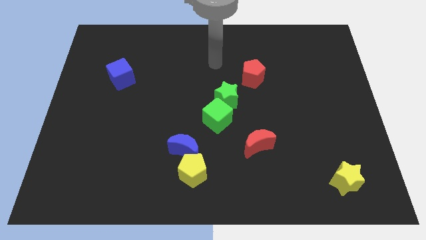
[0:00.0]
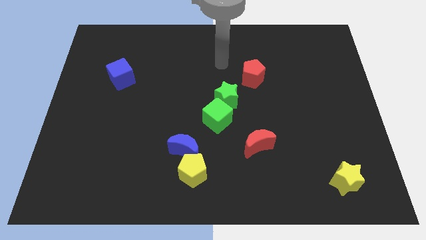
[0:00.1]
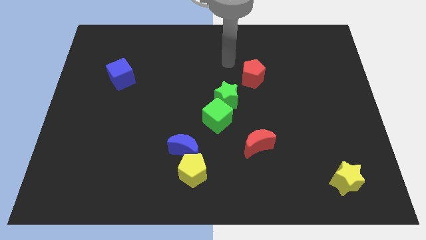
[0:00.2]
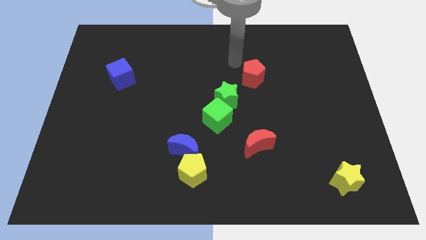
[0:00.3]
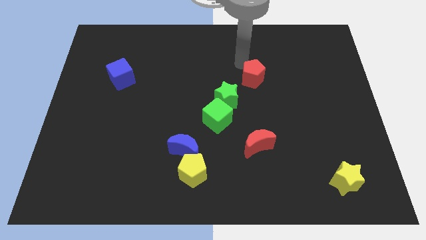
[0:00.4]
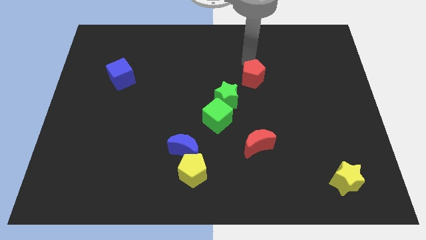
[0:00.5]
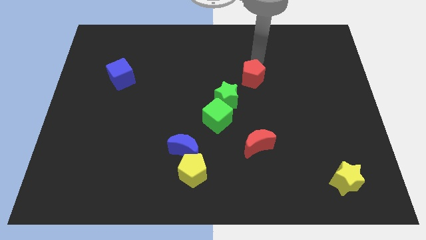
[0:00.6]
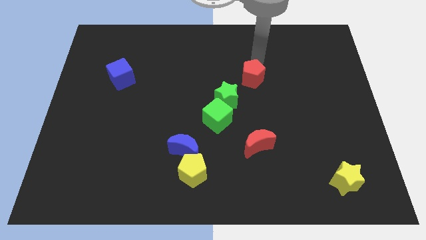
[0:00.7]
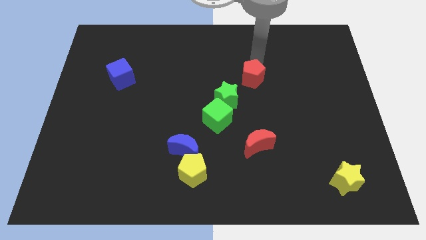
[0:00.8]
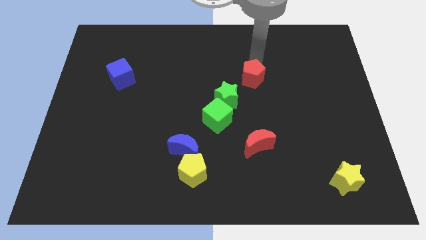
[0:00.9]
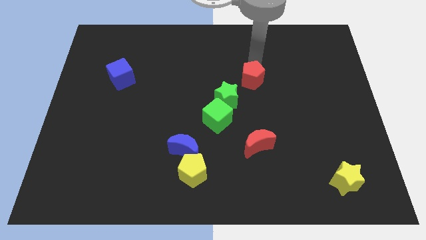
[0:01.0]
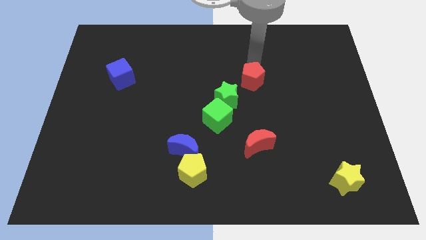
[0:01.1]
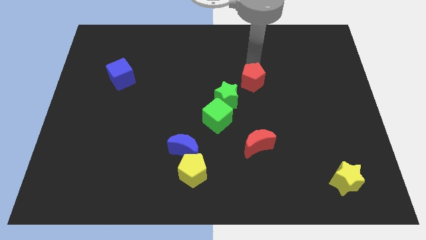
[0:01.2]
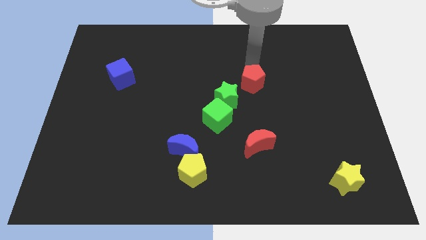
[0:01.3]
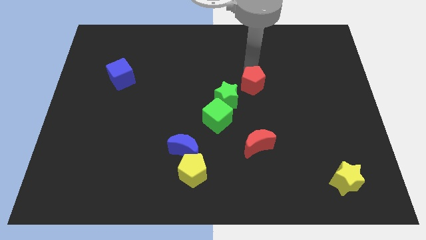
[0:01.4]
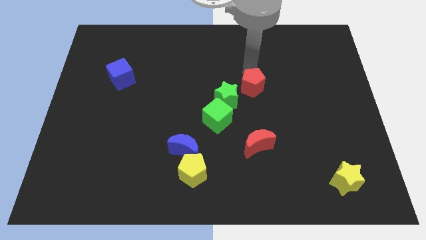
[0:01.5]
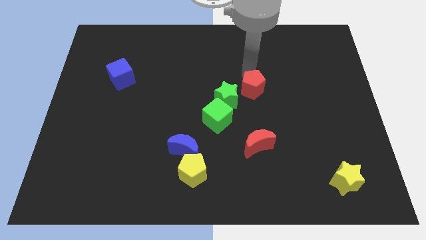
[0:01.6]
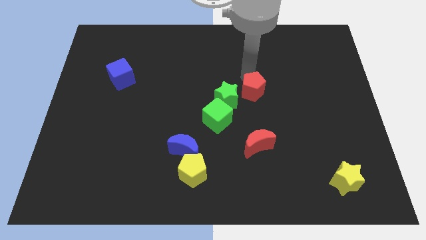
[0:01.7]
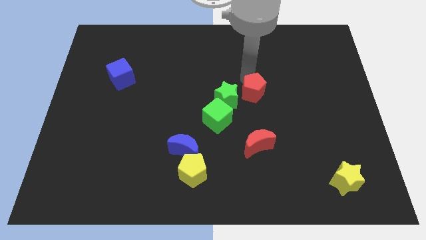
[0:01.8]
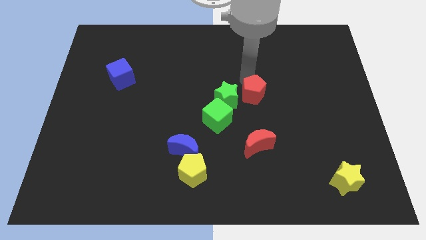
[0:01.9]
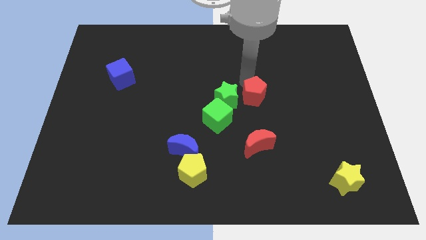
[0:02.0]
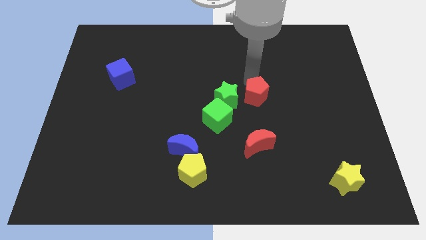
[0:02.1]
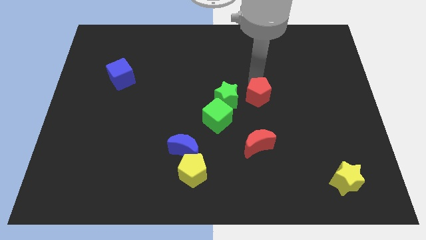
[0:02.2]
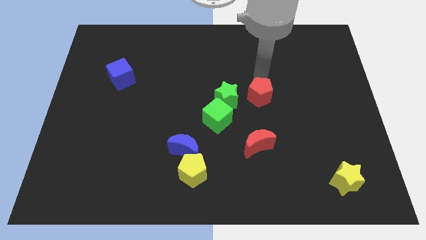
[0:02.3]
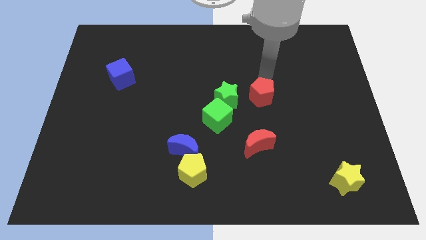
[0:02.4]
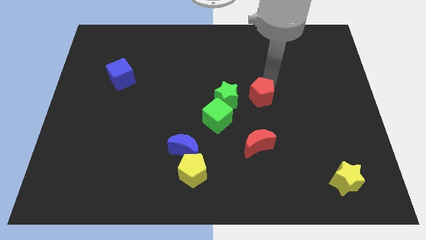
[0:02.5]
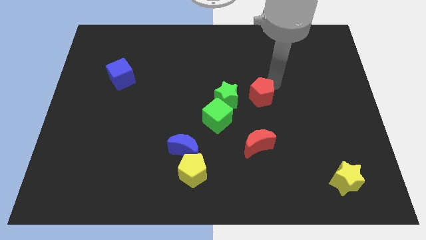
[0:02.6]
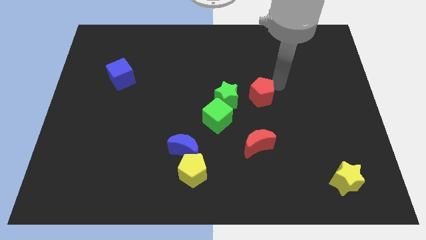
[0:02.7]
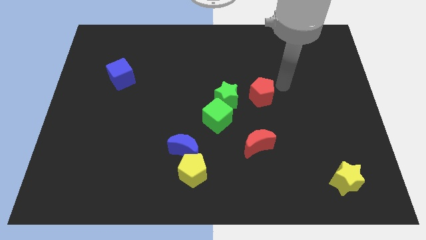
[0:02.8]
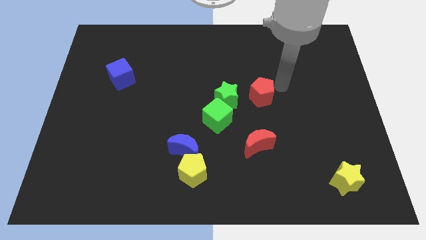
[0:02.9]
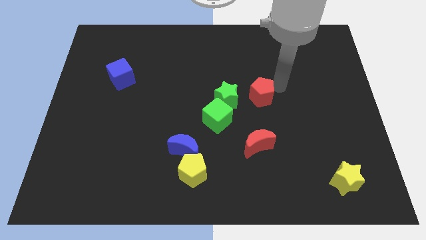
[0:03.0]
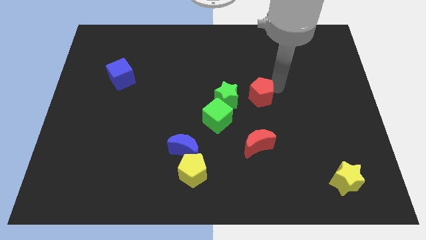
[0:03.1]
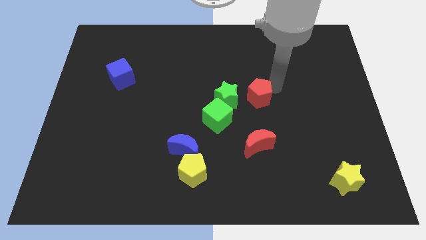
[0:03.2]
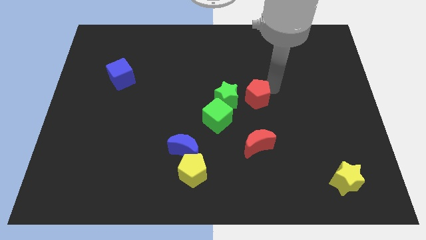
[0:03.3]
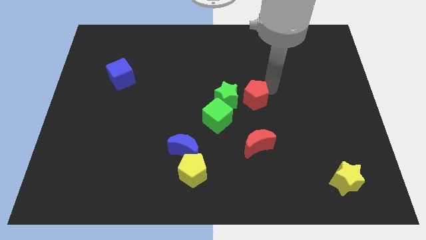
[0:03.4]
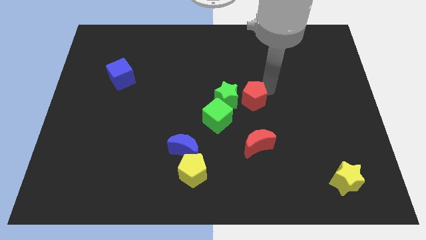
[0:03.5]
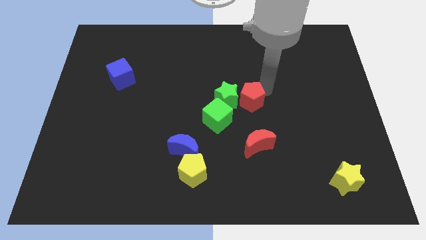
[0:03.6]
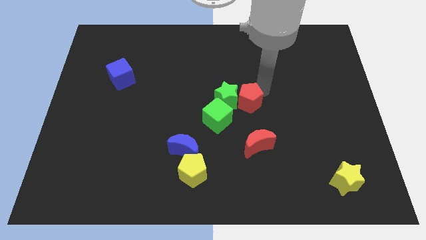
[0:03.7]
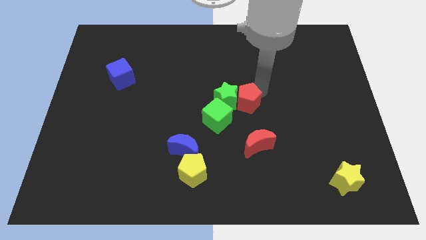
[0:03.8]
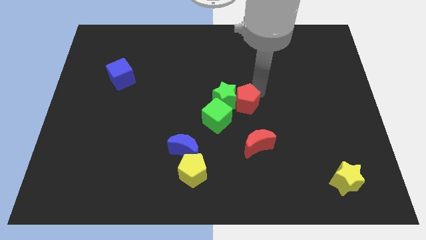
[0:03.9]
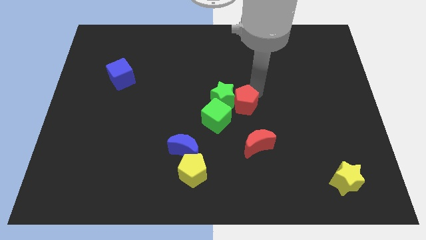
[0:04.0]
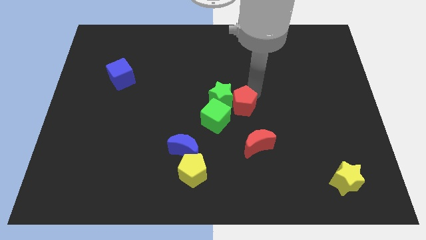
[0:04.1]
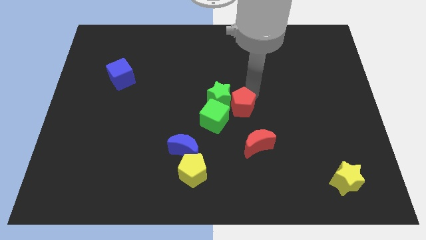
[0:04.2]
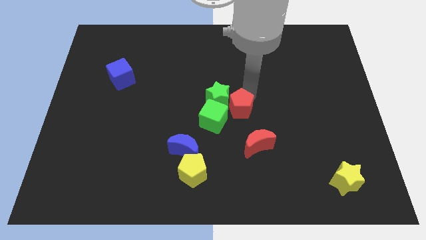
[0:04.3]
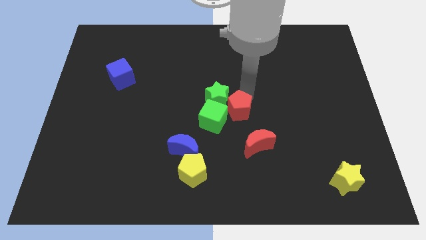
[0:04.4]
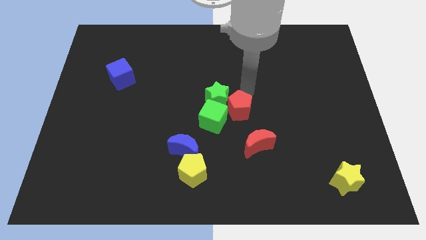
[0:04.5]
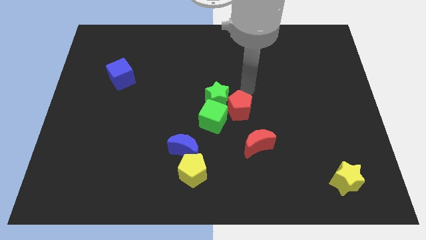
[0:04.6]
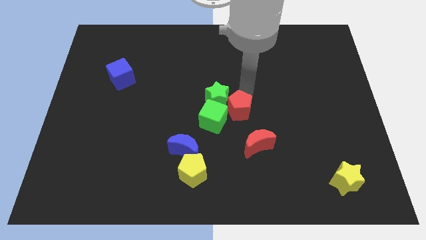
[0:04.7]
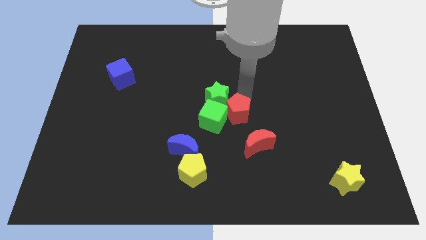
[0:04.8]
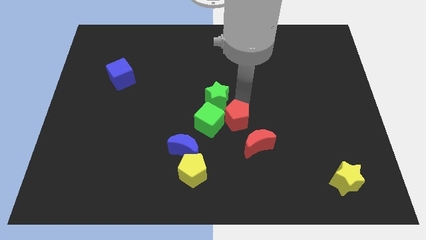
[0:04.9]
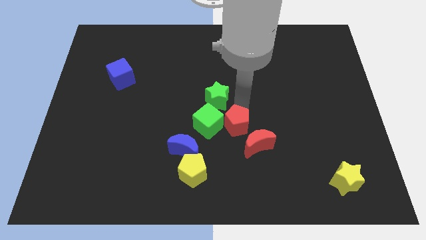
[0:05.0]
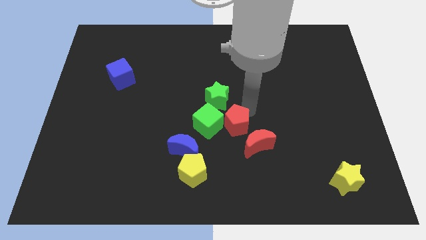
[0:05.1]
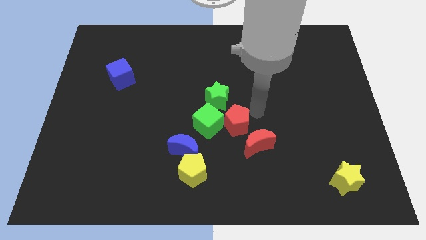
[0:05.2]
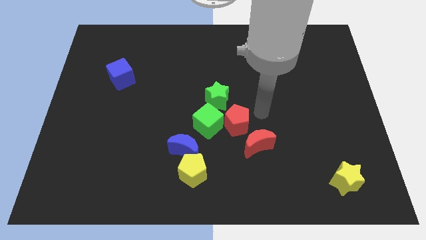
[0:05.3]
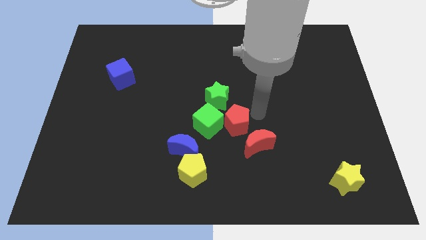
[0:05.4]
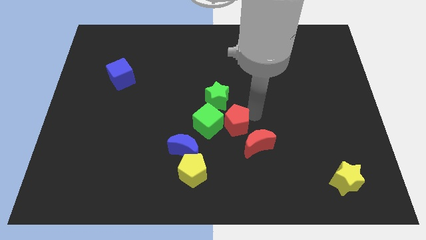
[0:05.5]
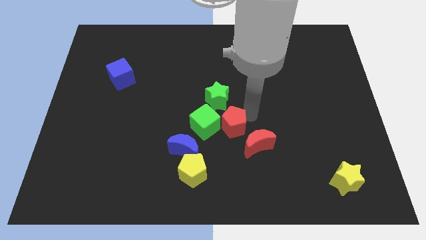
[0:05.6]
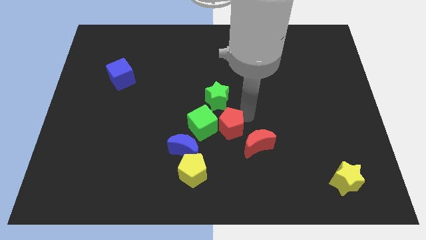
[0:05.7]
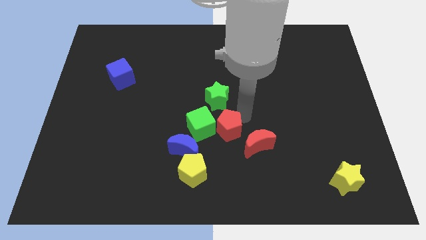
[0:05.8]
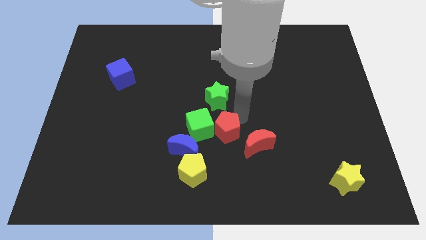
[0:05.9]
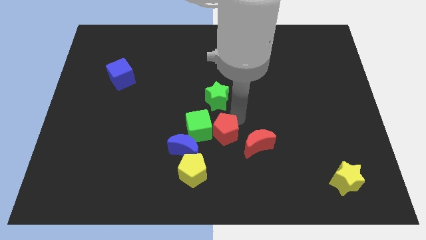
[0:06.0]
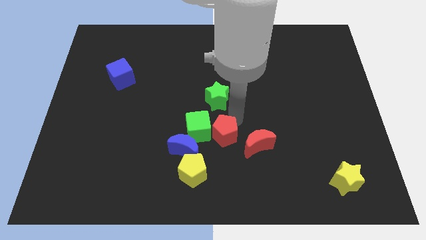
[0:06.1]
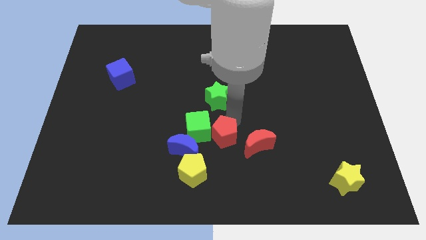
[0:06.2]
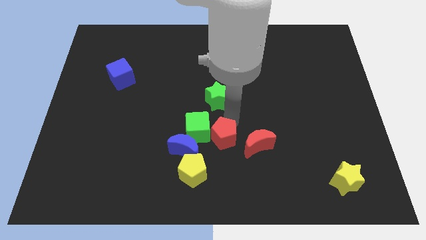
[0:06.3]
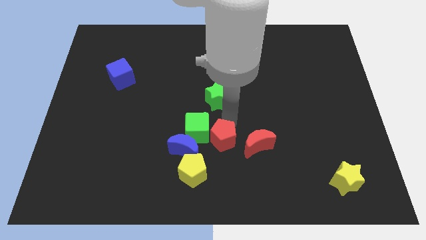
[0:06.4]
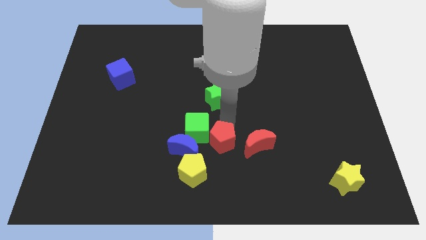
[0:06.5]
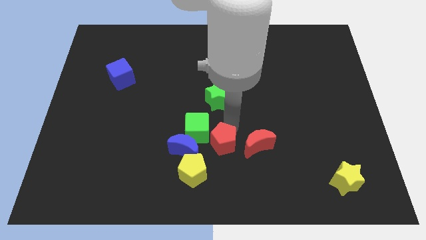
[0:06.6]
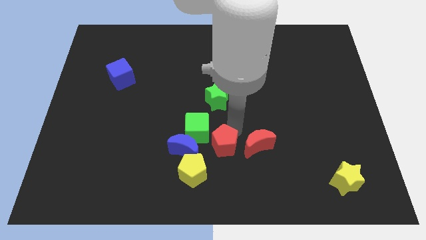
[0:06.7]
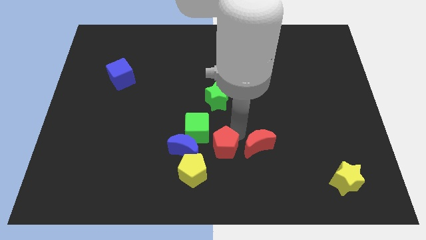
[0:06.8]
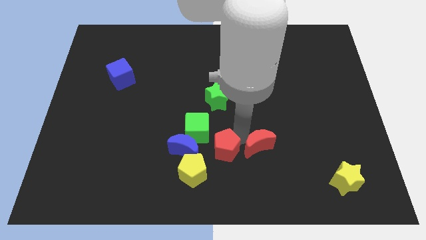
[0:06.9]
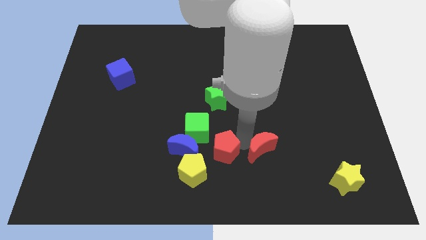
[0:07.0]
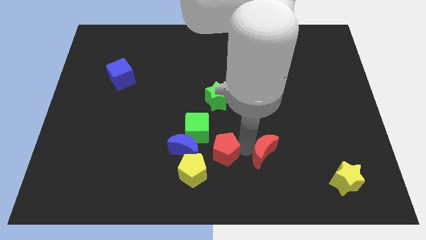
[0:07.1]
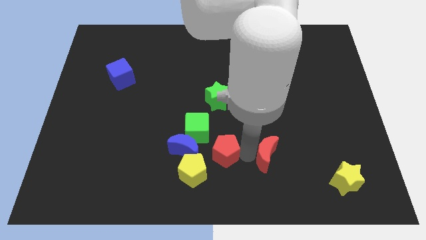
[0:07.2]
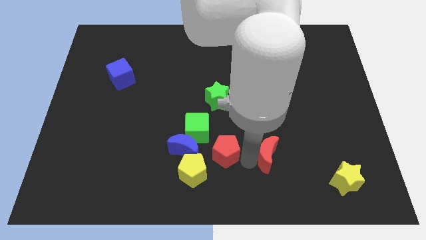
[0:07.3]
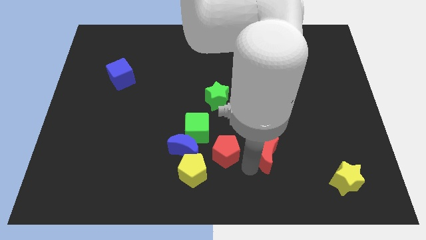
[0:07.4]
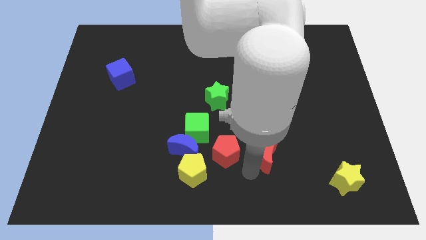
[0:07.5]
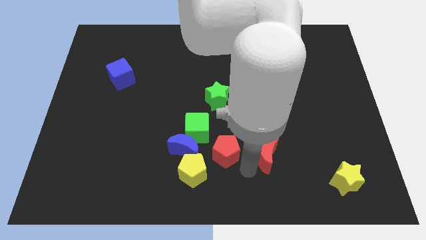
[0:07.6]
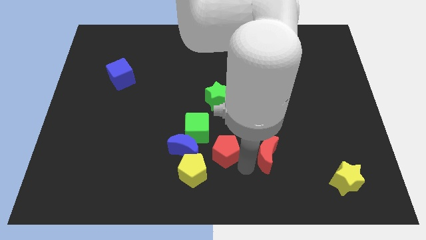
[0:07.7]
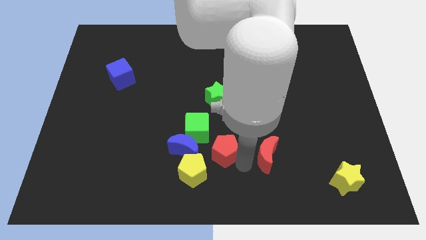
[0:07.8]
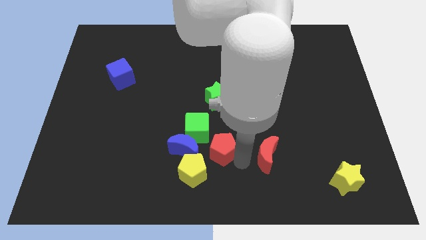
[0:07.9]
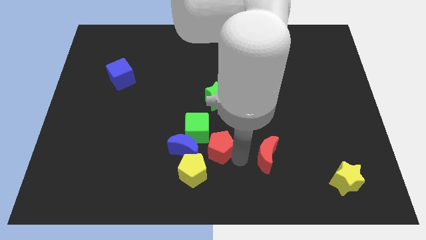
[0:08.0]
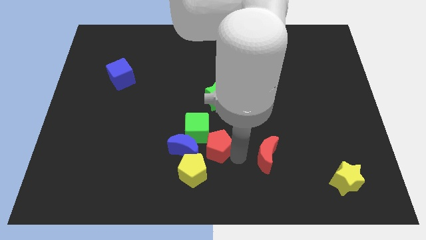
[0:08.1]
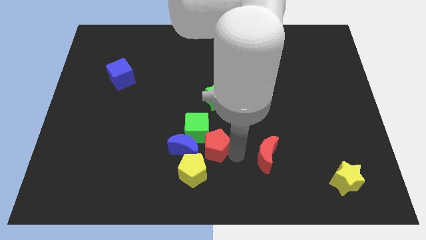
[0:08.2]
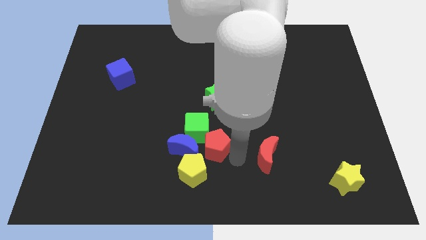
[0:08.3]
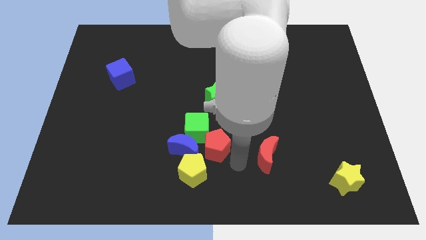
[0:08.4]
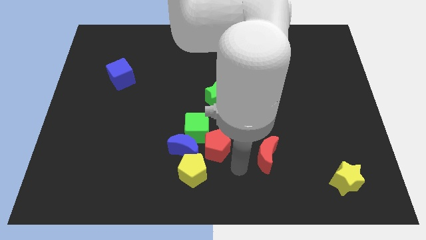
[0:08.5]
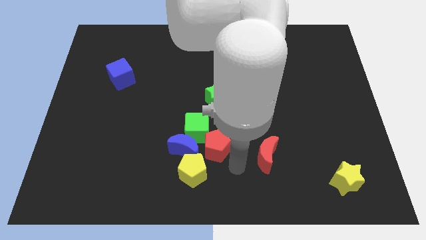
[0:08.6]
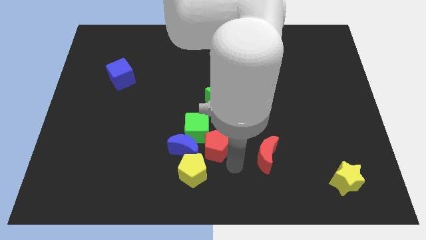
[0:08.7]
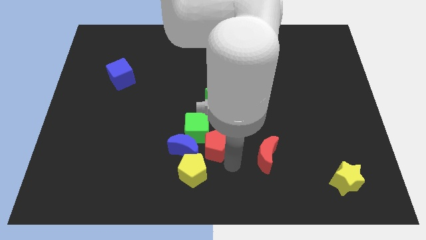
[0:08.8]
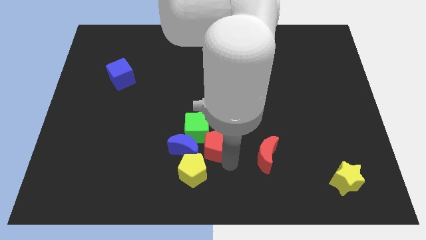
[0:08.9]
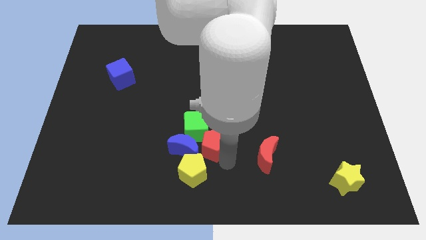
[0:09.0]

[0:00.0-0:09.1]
move the red pentagon to the blue moon
